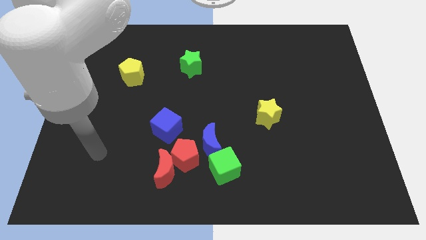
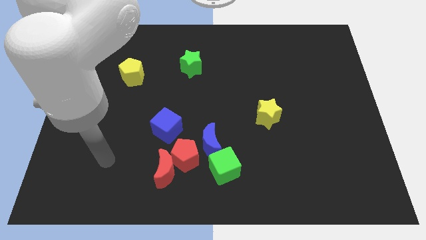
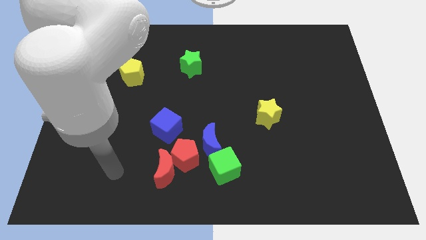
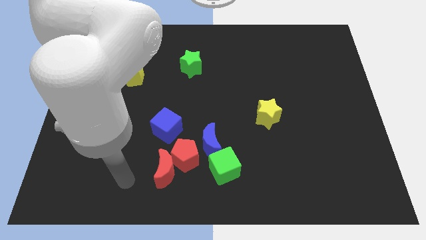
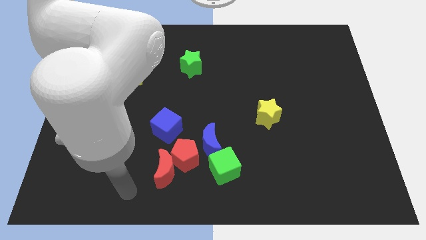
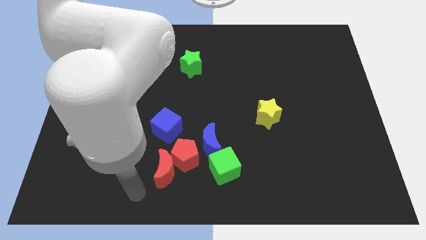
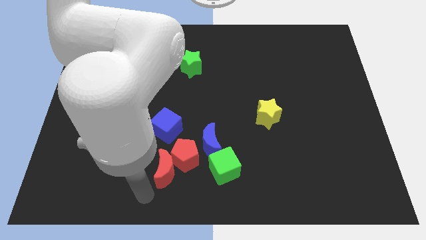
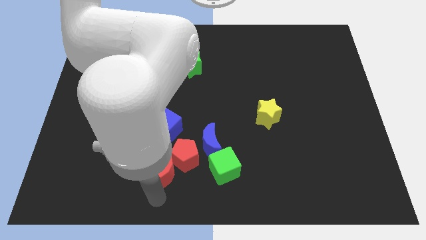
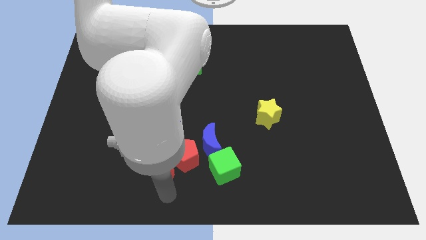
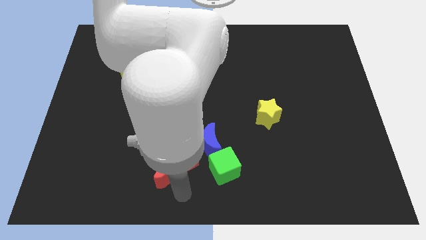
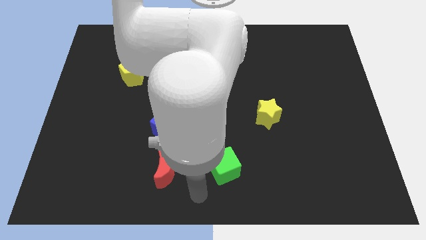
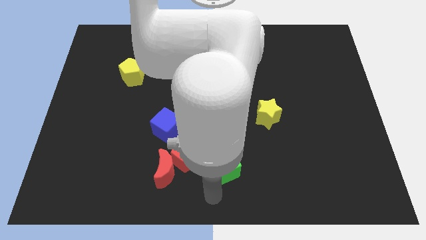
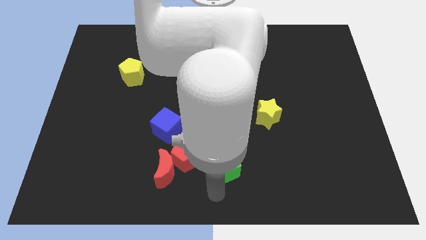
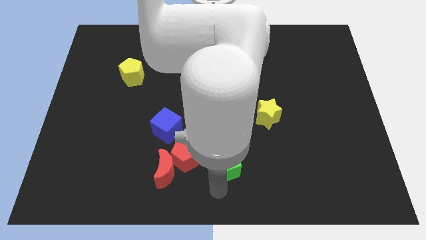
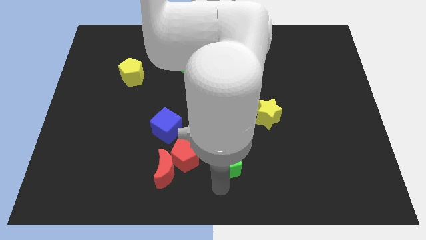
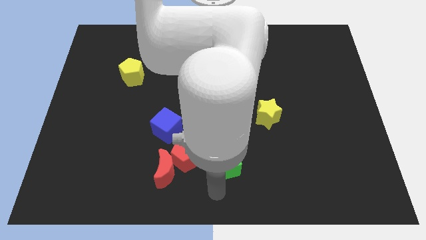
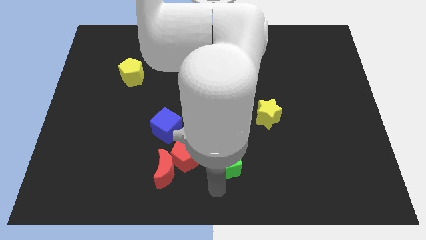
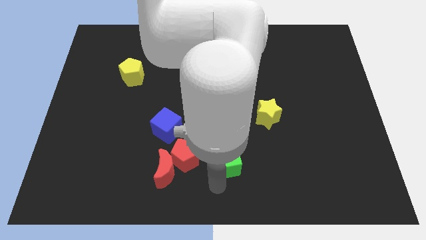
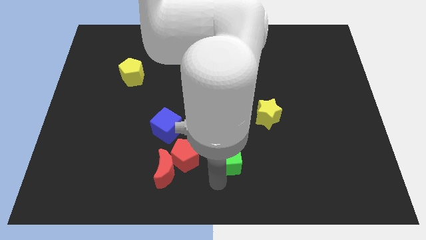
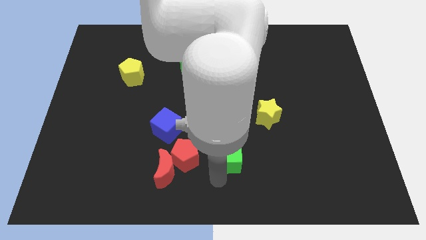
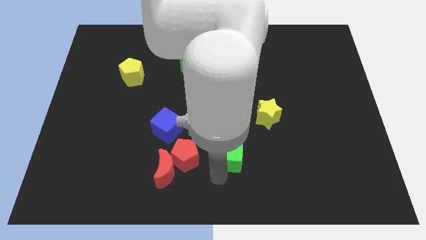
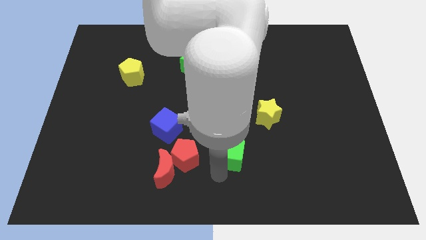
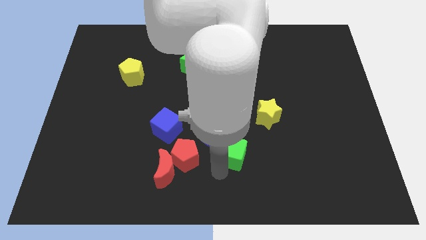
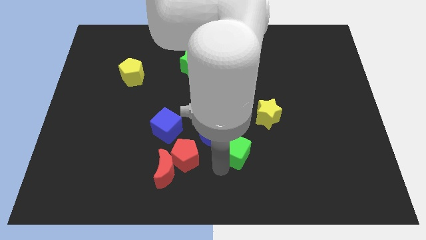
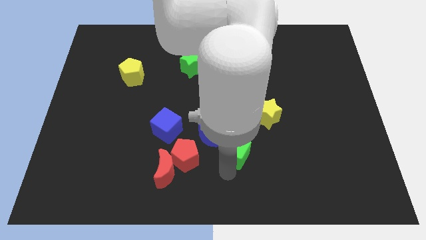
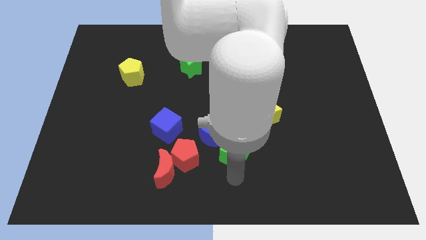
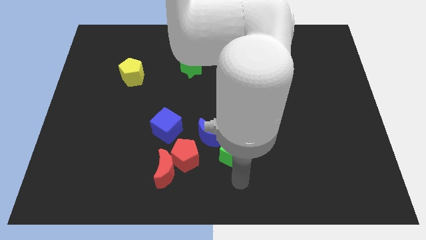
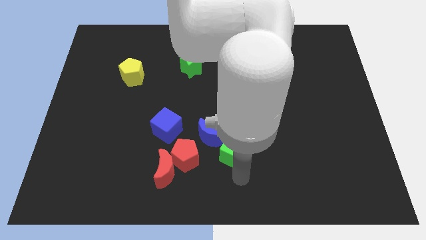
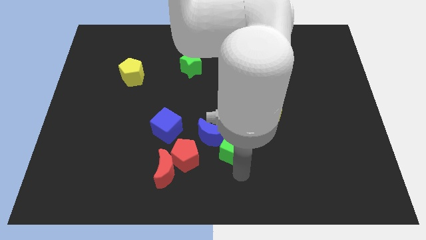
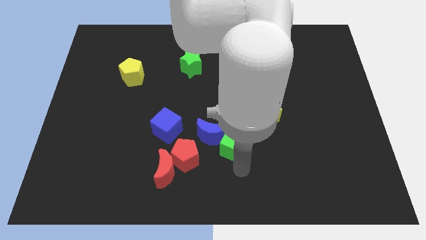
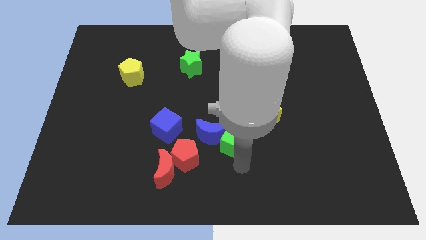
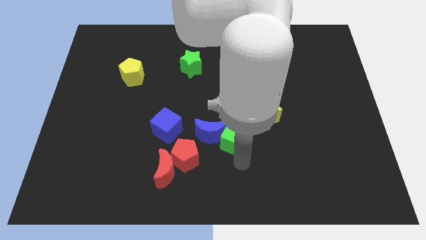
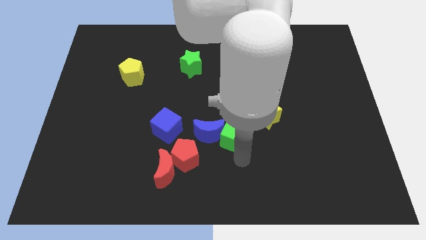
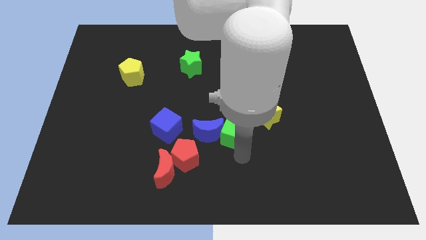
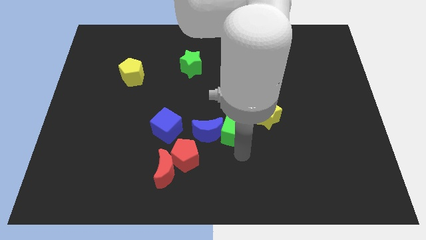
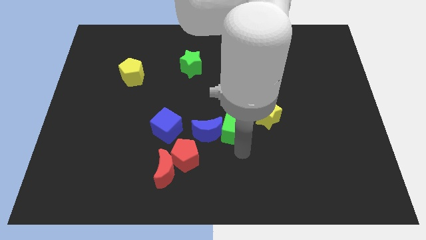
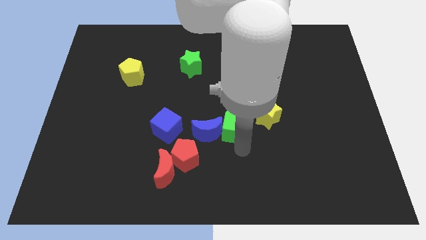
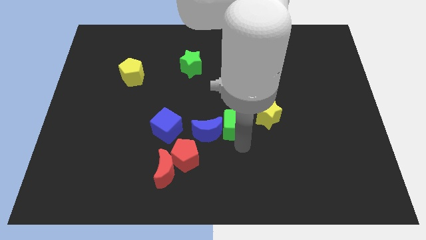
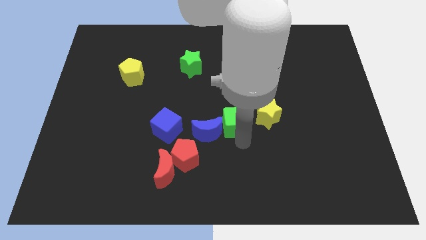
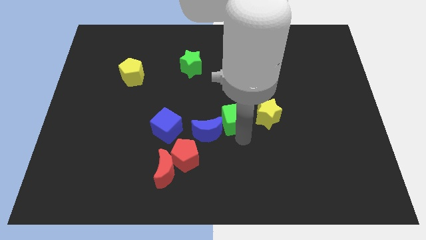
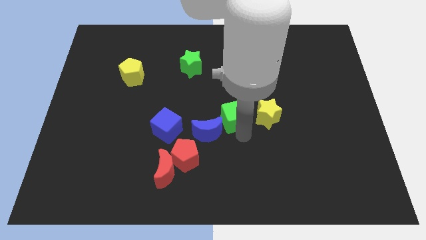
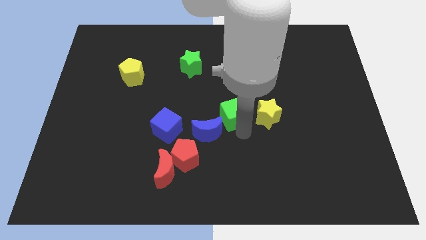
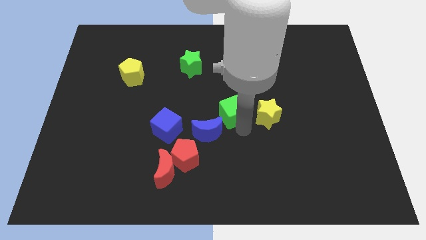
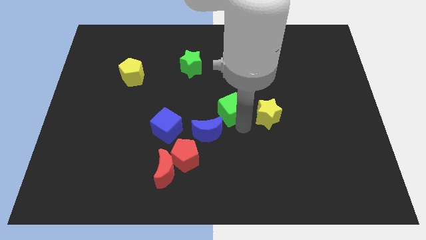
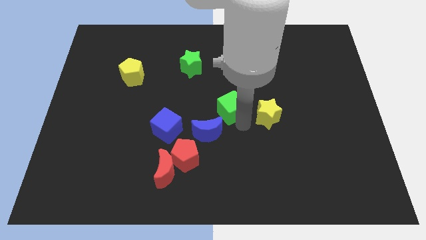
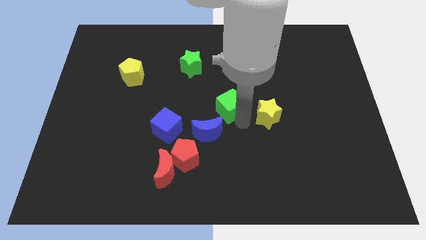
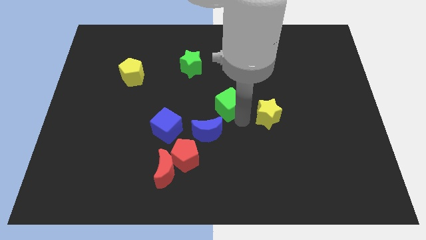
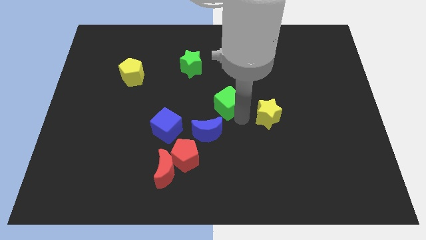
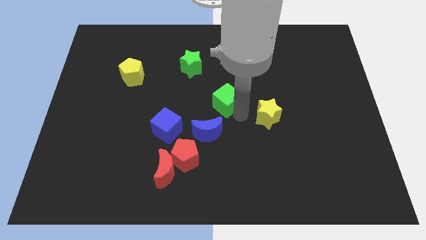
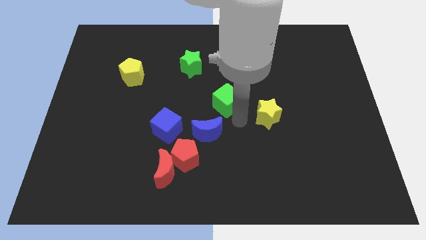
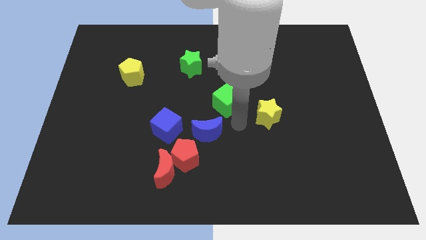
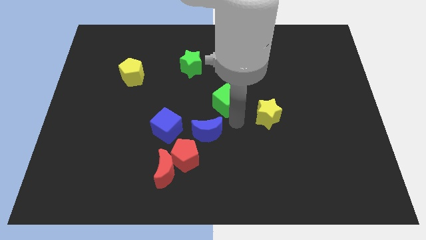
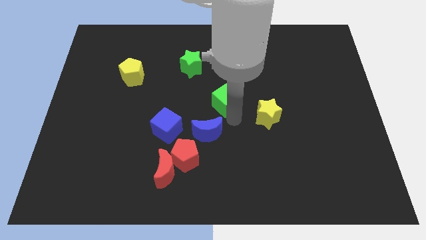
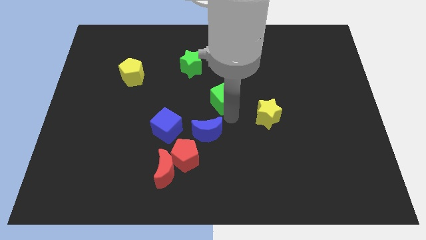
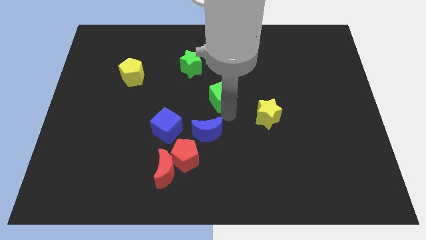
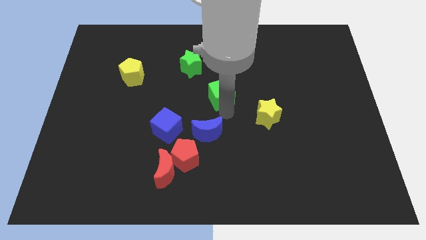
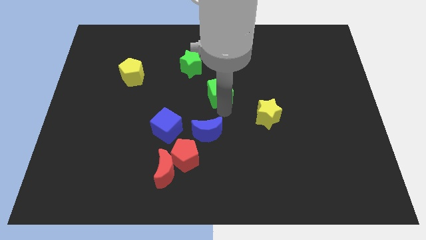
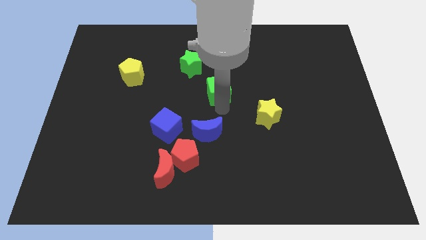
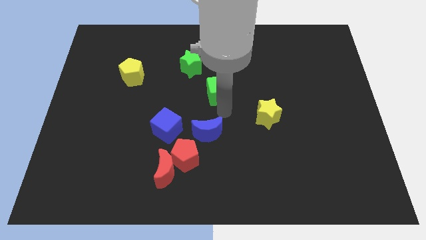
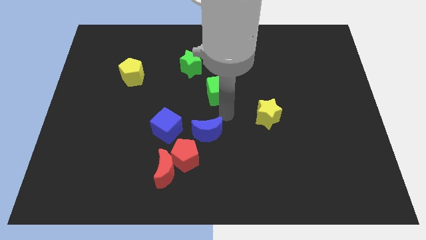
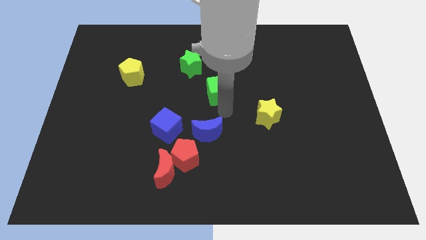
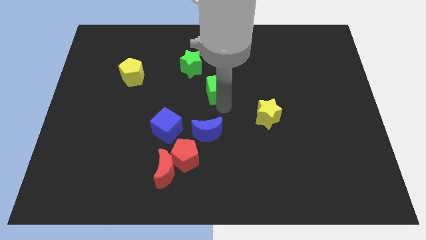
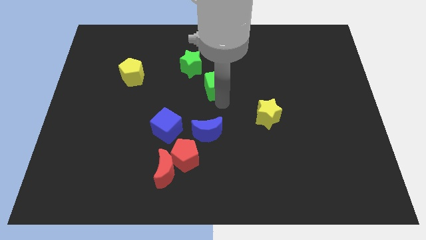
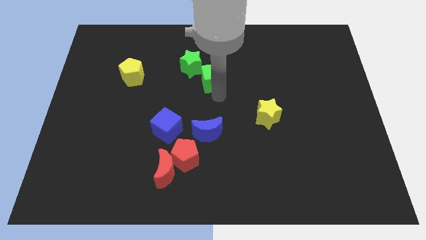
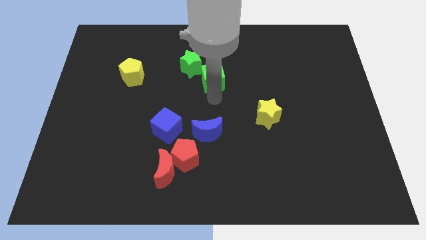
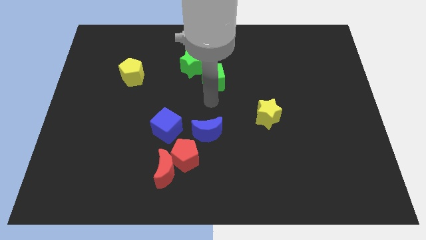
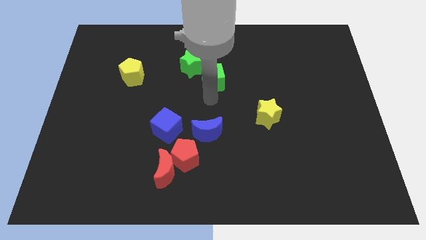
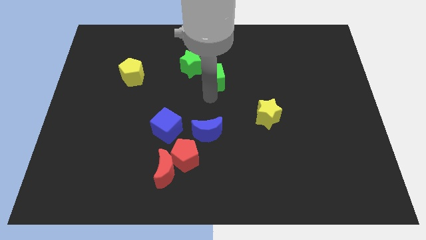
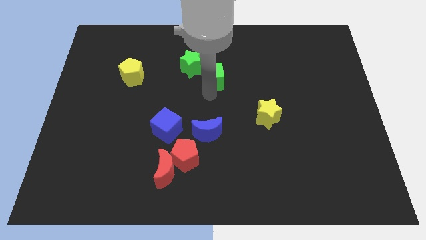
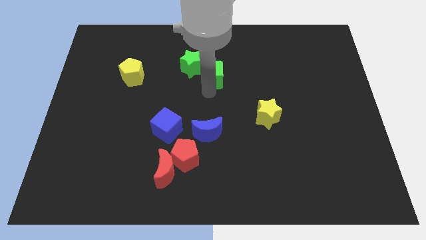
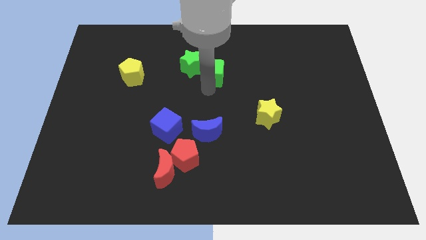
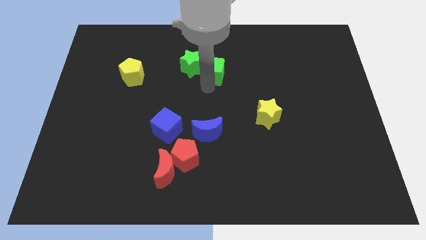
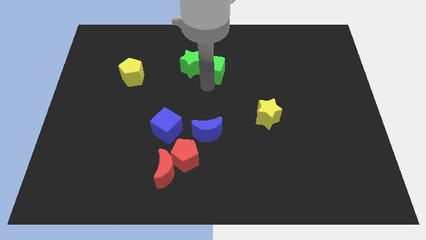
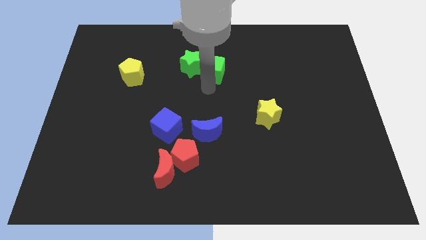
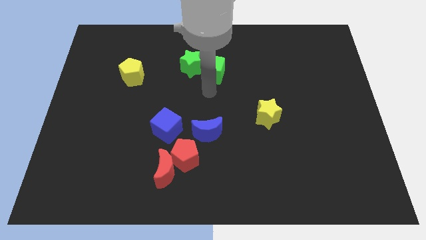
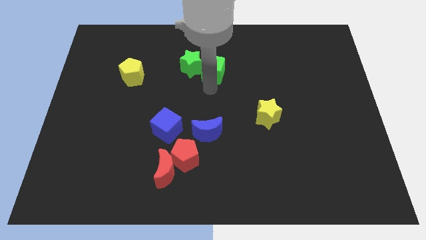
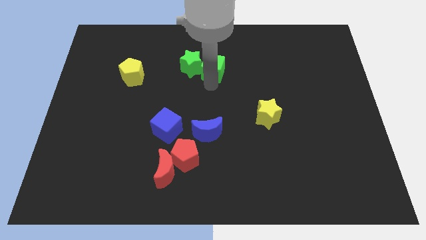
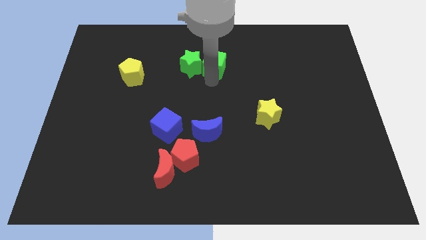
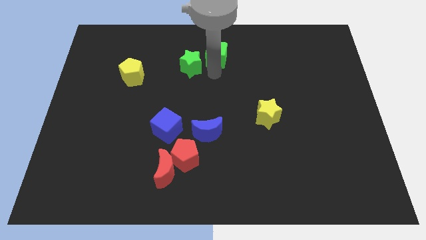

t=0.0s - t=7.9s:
slide the green cube to the top side

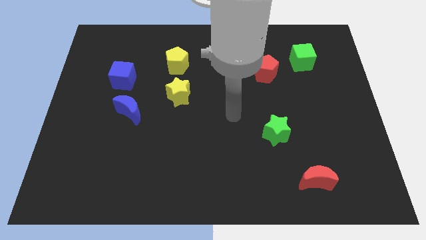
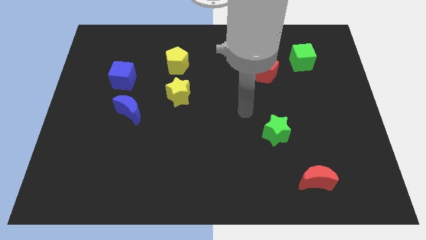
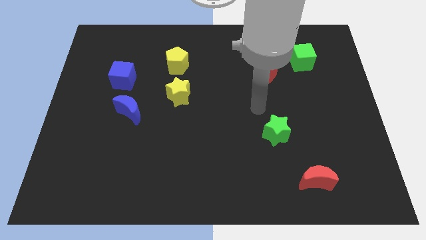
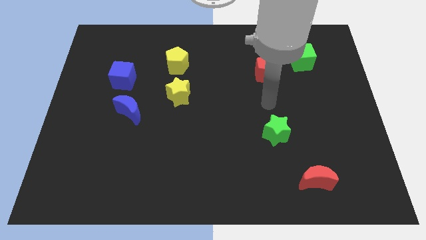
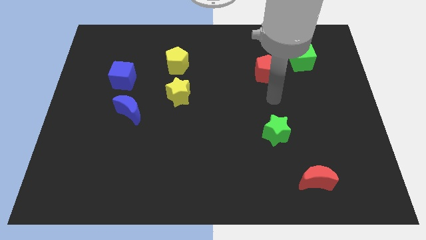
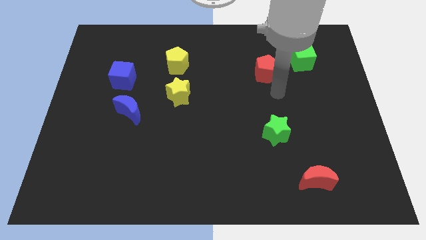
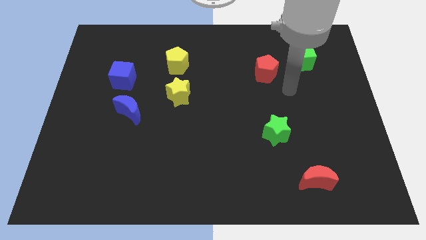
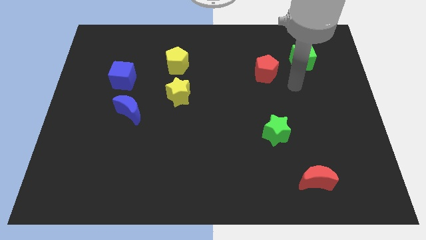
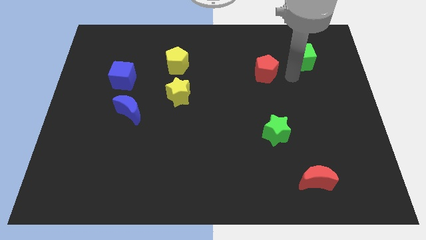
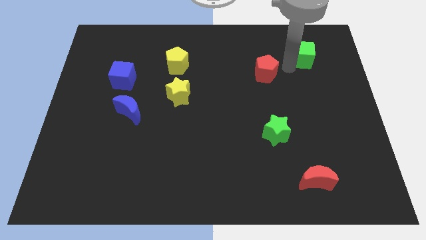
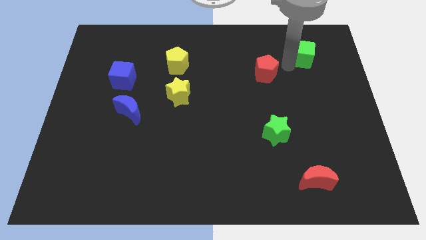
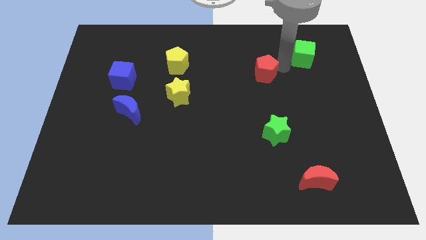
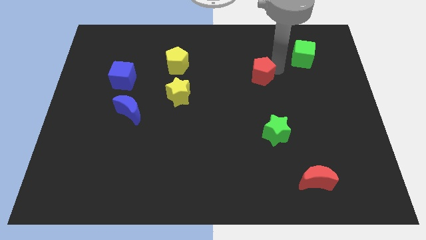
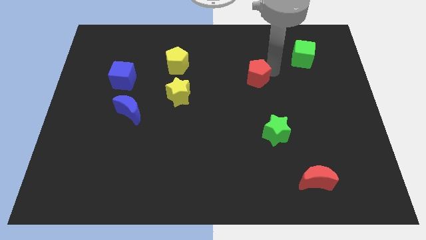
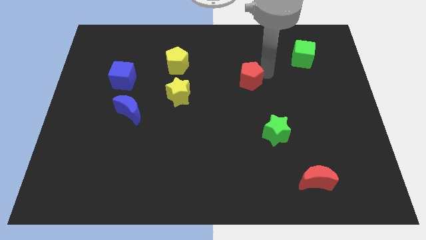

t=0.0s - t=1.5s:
slide the red pentagon to the center of the board
